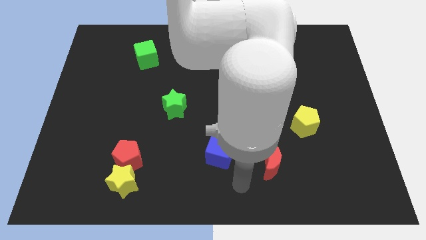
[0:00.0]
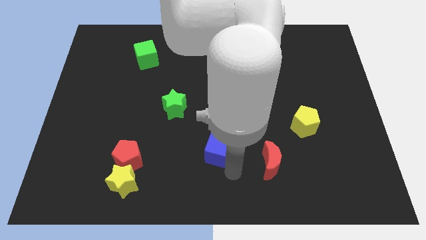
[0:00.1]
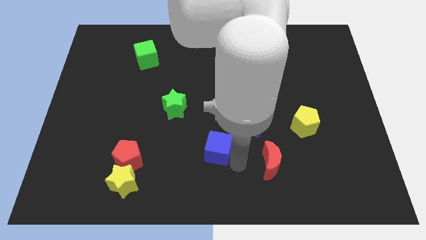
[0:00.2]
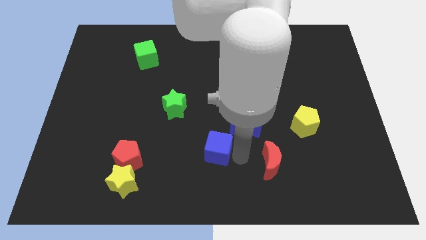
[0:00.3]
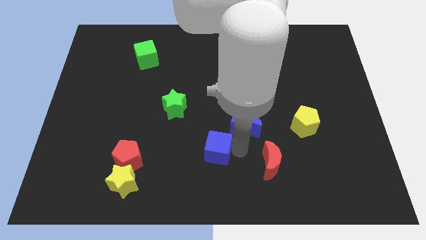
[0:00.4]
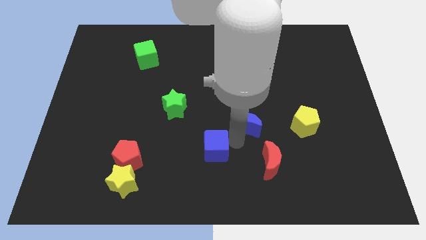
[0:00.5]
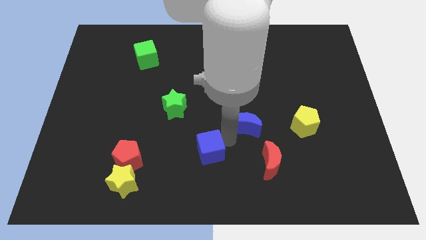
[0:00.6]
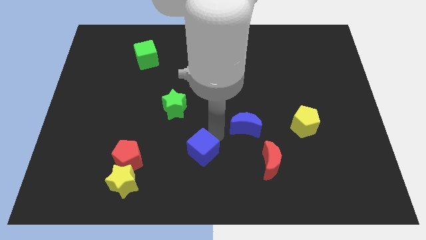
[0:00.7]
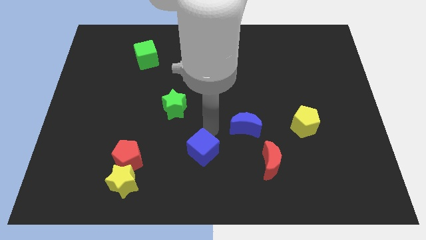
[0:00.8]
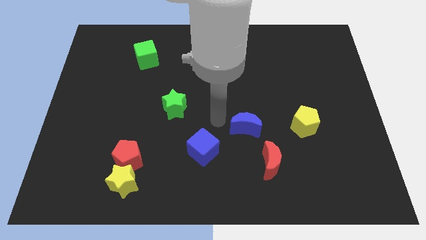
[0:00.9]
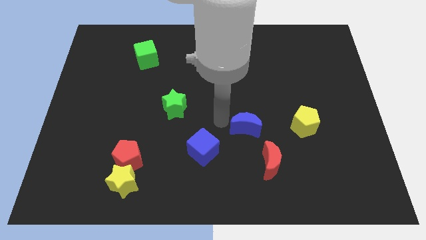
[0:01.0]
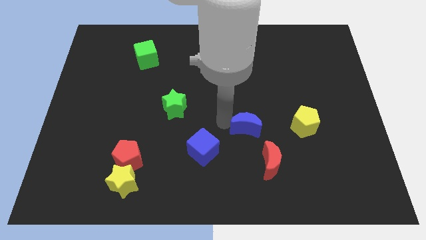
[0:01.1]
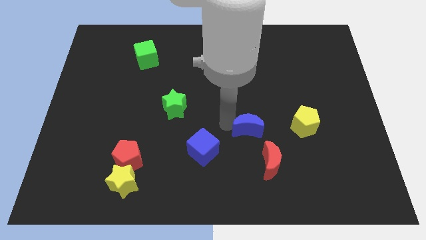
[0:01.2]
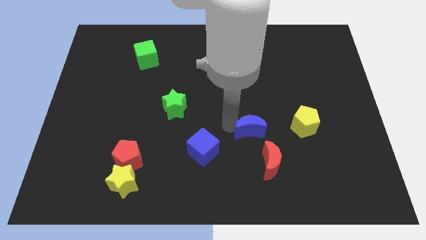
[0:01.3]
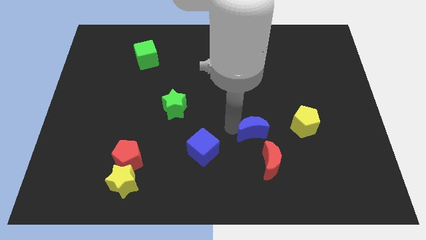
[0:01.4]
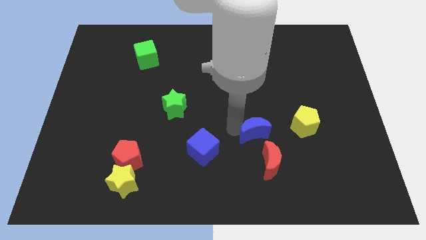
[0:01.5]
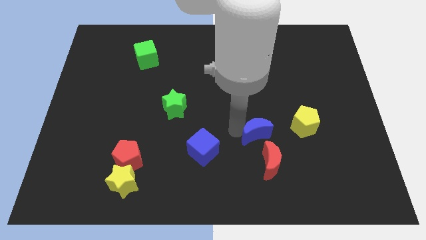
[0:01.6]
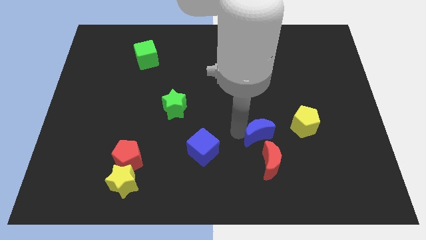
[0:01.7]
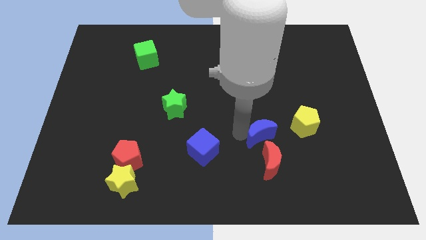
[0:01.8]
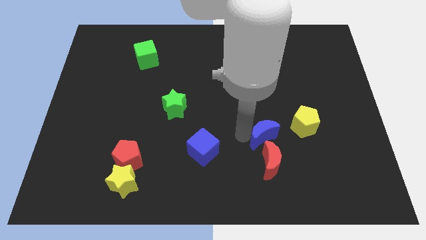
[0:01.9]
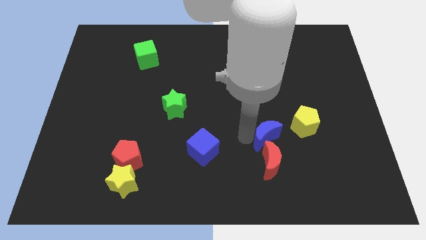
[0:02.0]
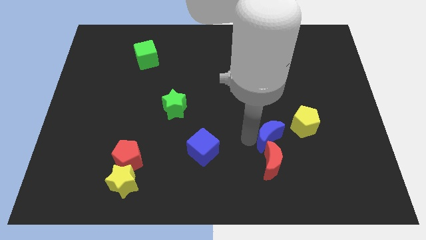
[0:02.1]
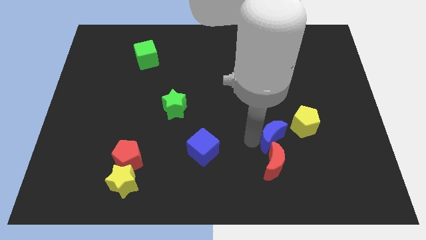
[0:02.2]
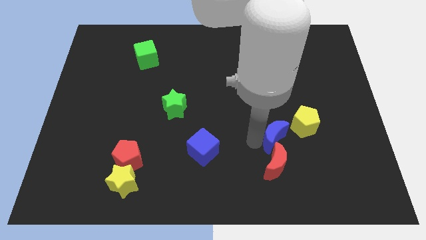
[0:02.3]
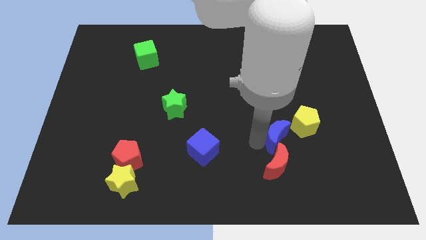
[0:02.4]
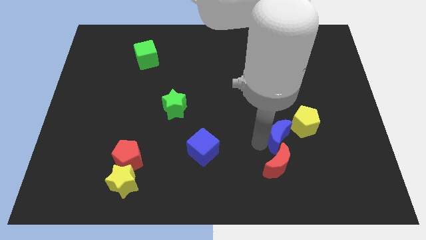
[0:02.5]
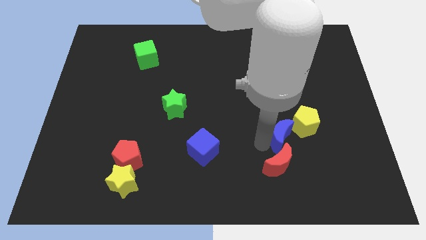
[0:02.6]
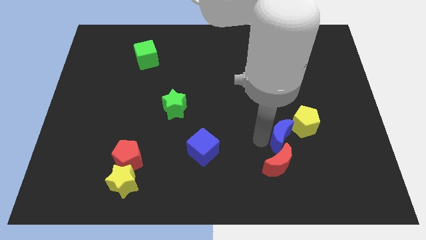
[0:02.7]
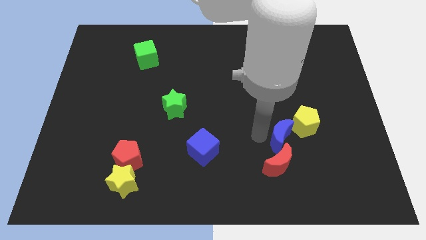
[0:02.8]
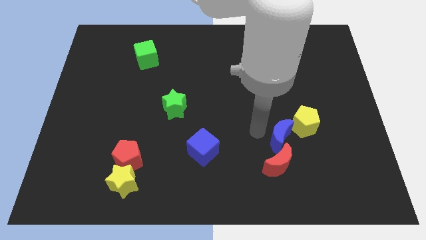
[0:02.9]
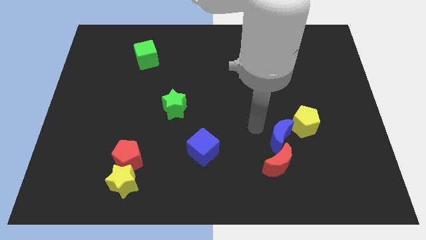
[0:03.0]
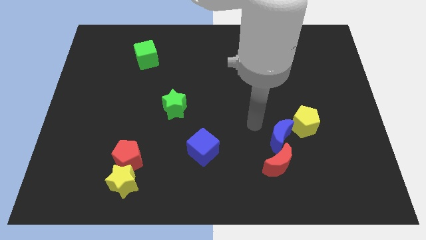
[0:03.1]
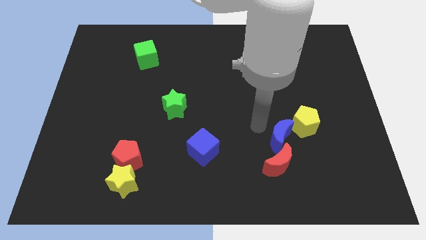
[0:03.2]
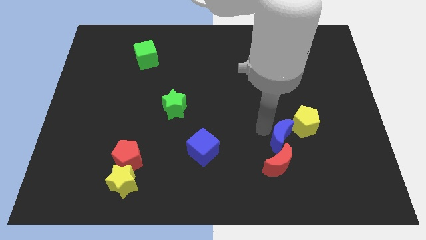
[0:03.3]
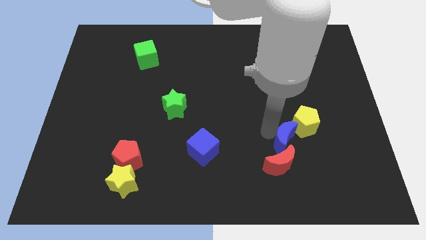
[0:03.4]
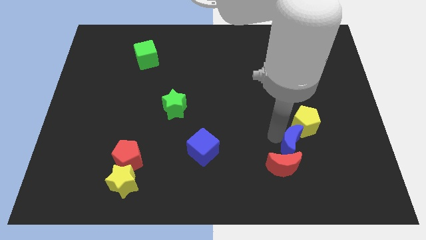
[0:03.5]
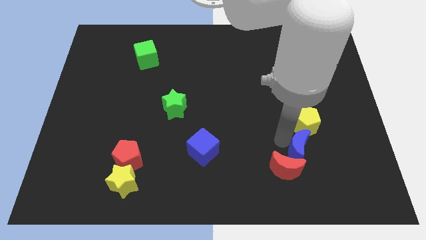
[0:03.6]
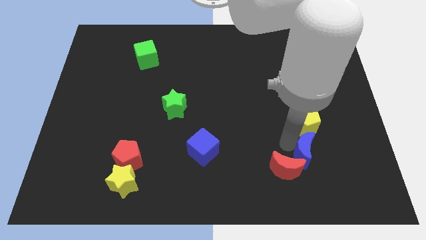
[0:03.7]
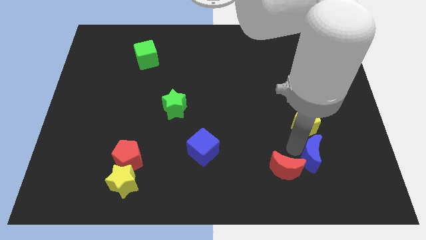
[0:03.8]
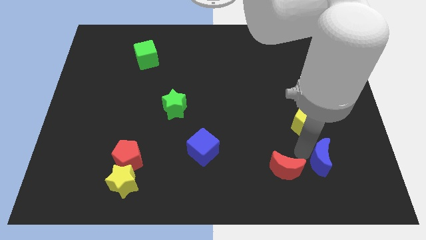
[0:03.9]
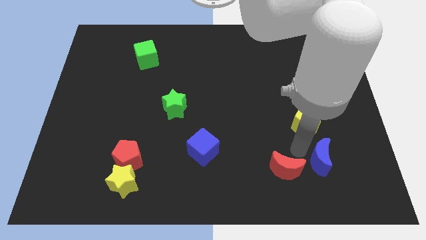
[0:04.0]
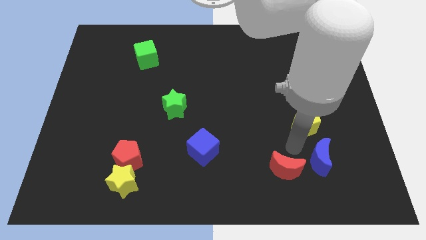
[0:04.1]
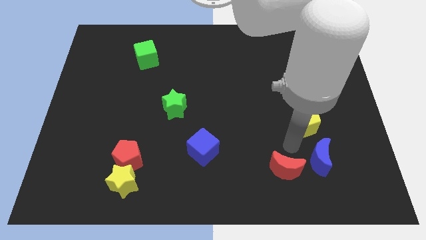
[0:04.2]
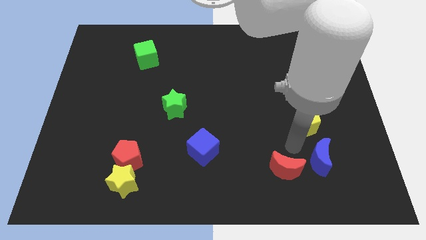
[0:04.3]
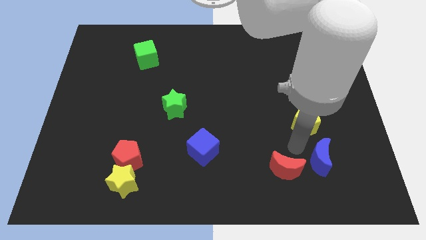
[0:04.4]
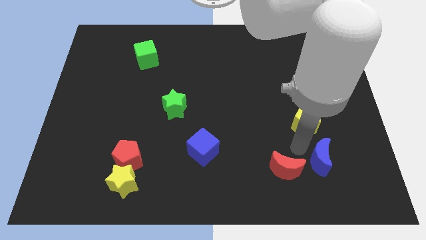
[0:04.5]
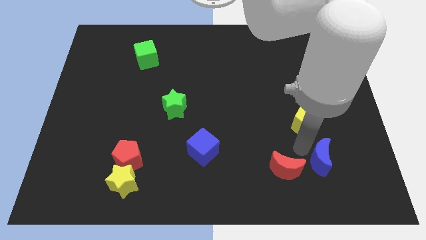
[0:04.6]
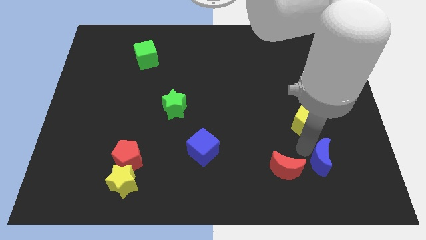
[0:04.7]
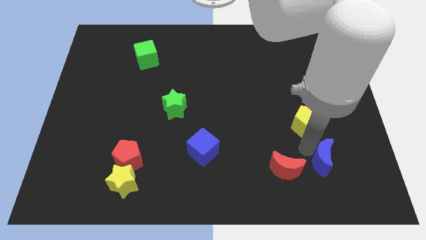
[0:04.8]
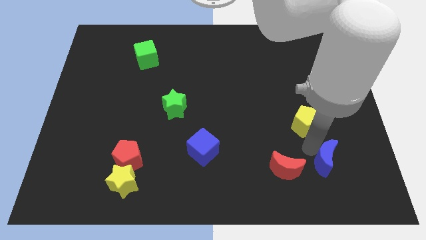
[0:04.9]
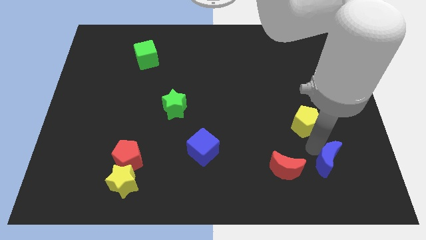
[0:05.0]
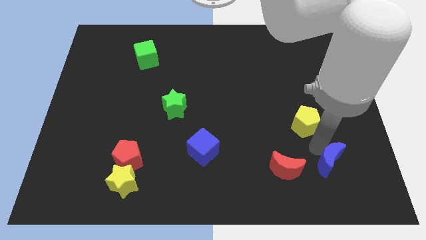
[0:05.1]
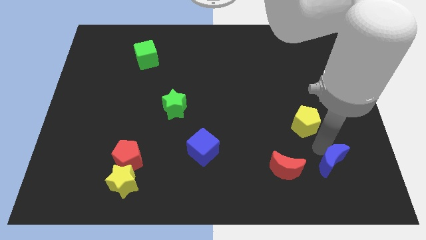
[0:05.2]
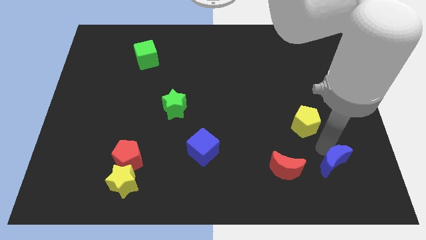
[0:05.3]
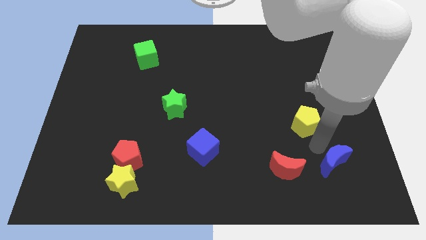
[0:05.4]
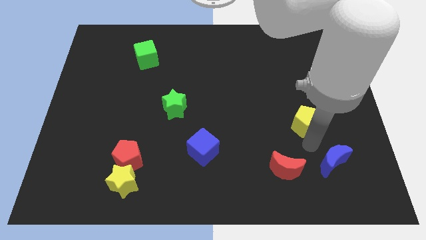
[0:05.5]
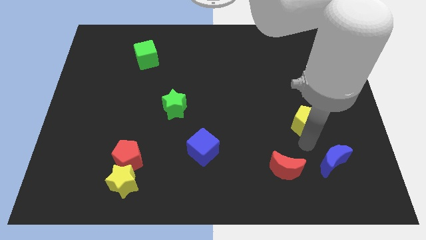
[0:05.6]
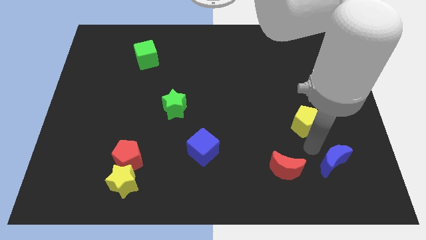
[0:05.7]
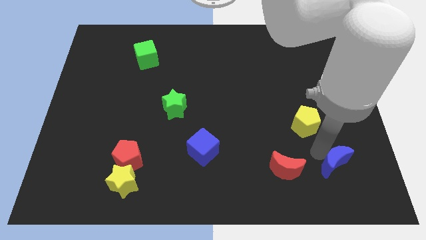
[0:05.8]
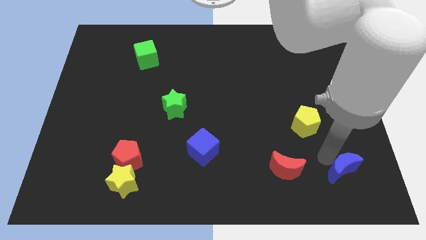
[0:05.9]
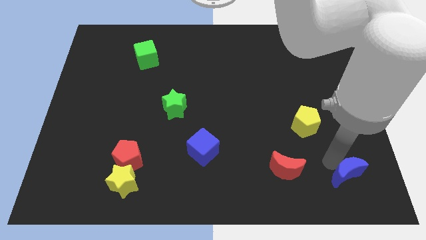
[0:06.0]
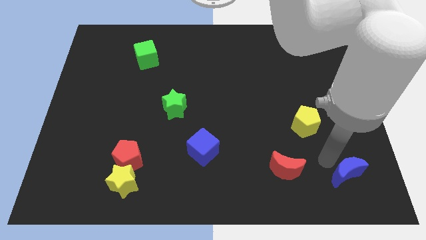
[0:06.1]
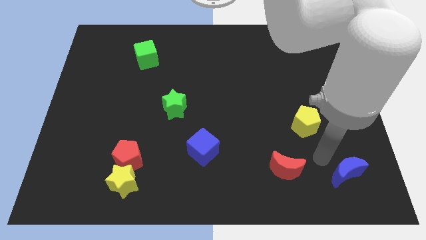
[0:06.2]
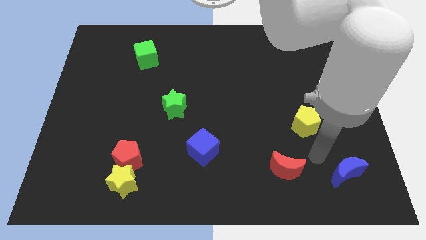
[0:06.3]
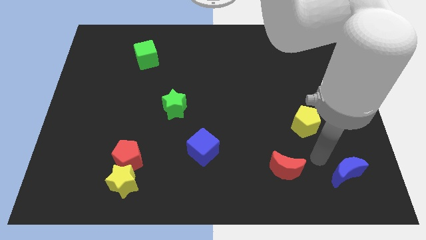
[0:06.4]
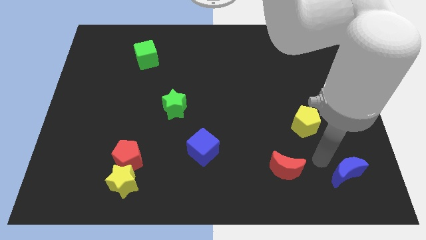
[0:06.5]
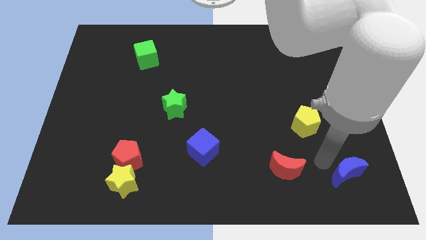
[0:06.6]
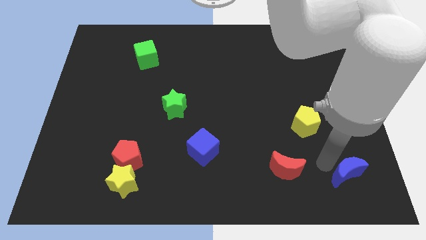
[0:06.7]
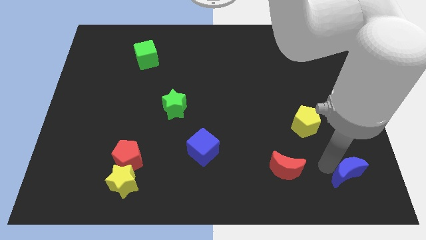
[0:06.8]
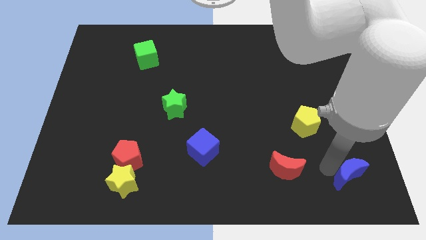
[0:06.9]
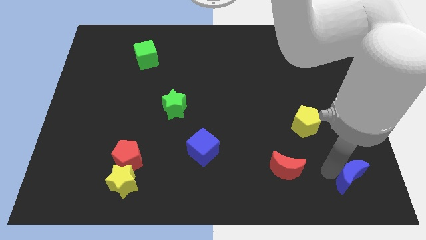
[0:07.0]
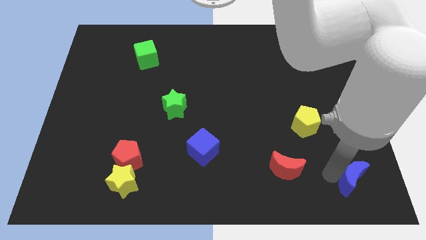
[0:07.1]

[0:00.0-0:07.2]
push the blue moon to the bottom right of the board
